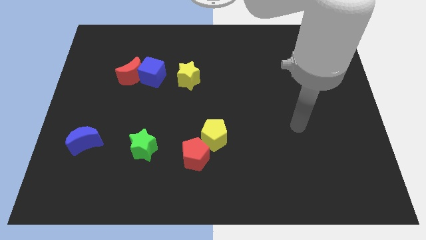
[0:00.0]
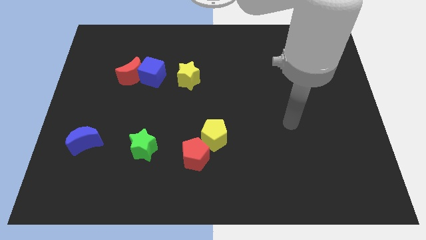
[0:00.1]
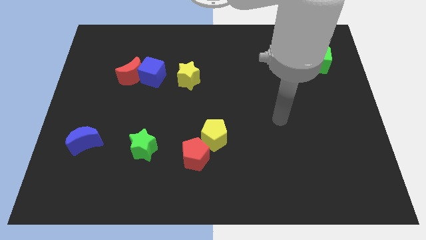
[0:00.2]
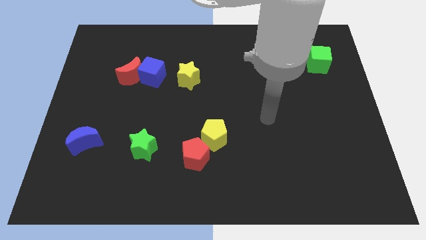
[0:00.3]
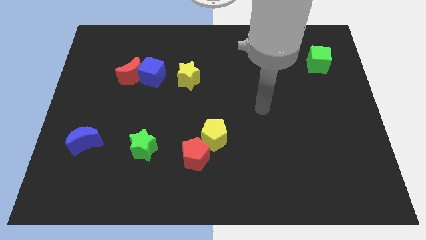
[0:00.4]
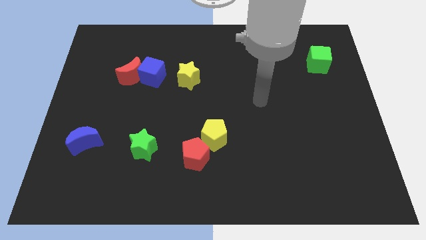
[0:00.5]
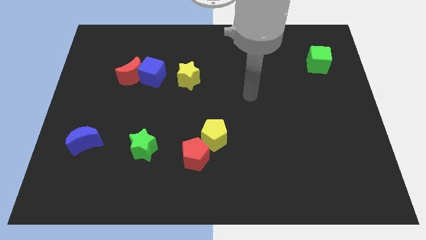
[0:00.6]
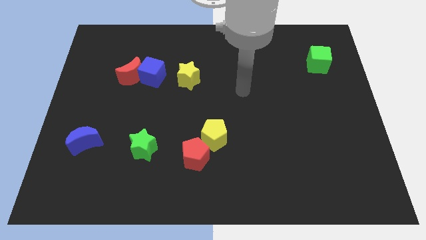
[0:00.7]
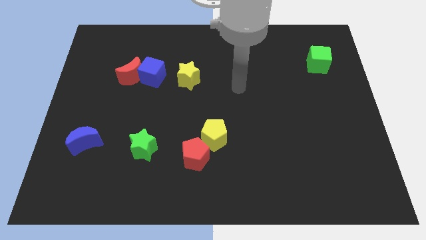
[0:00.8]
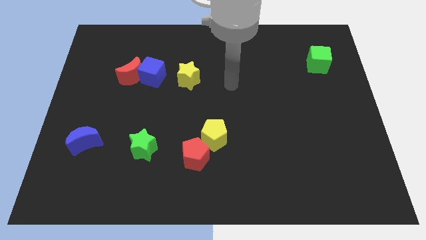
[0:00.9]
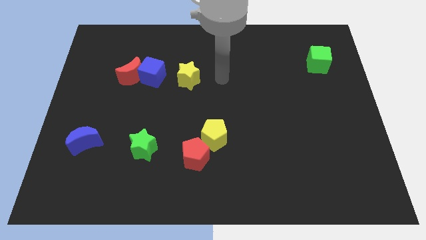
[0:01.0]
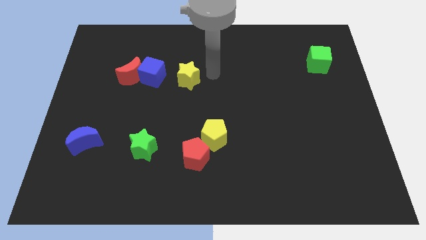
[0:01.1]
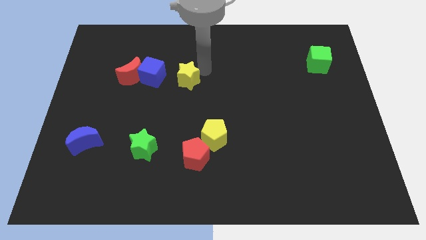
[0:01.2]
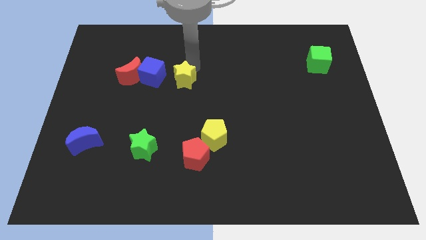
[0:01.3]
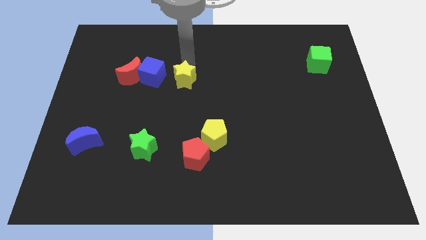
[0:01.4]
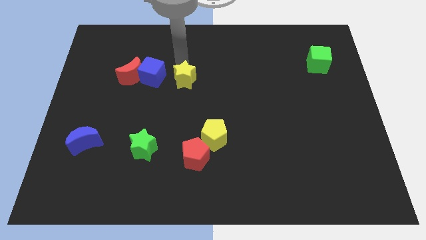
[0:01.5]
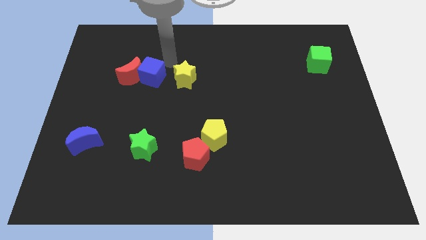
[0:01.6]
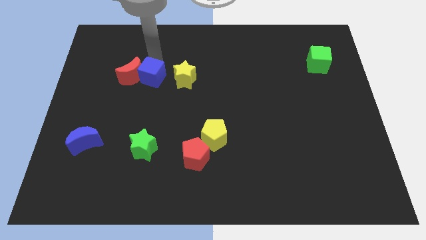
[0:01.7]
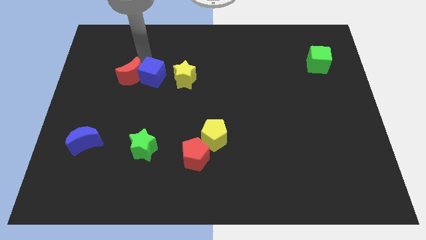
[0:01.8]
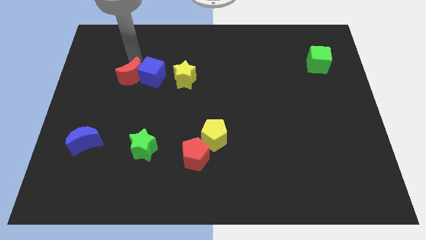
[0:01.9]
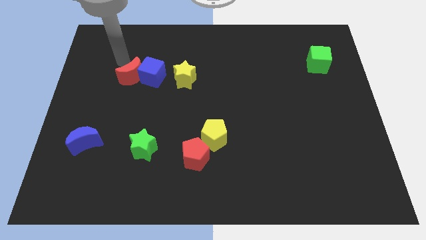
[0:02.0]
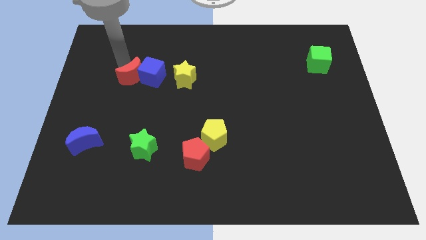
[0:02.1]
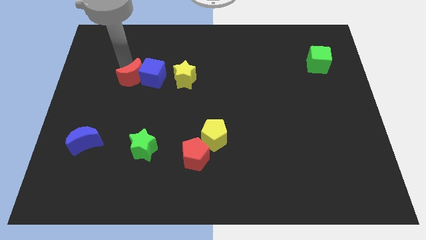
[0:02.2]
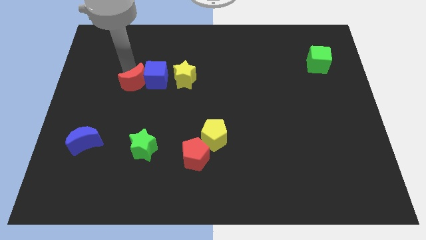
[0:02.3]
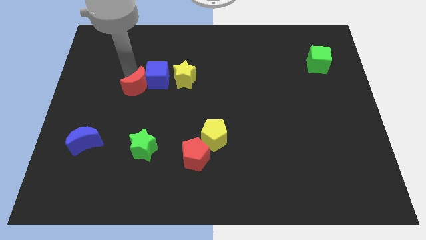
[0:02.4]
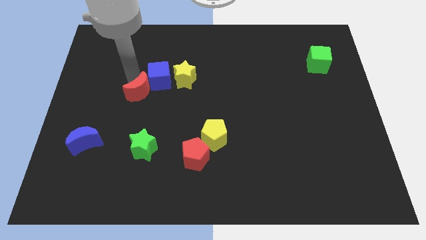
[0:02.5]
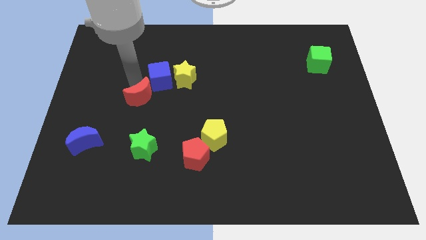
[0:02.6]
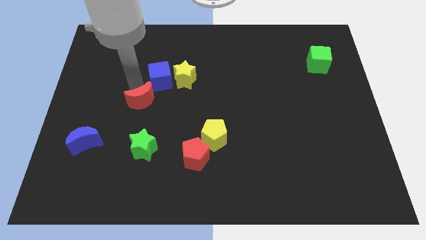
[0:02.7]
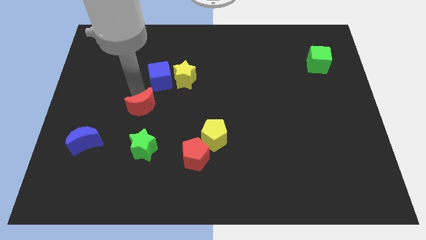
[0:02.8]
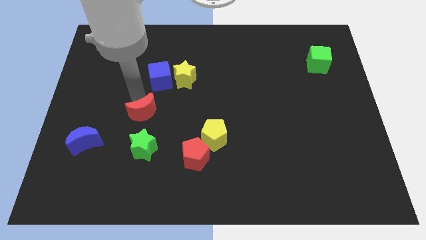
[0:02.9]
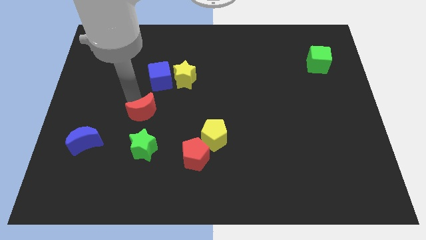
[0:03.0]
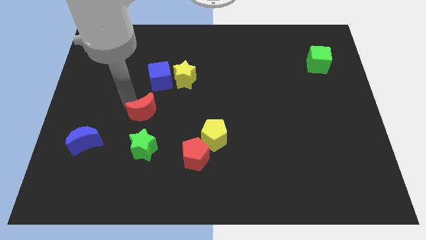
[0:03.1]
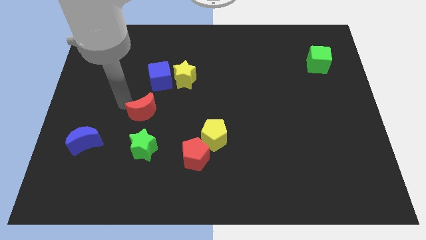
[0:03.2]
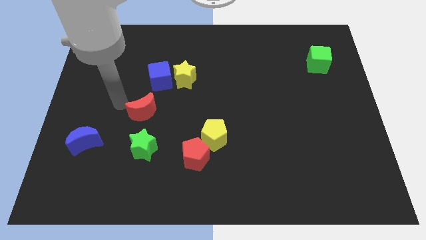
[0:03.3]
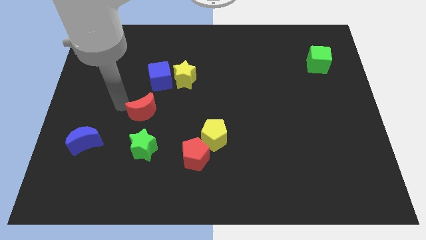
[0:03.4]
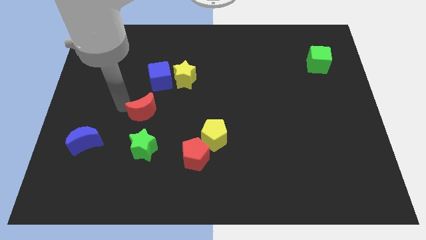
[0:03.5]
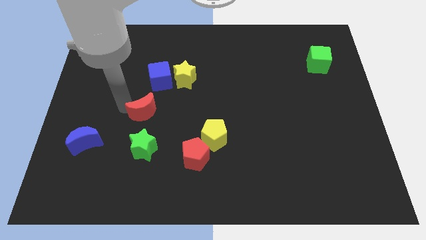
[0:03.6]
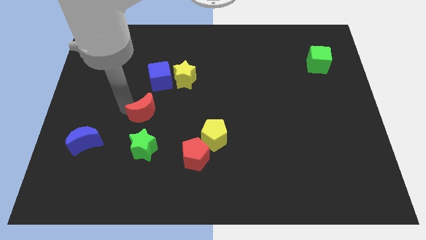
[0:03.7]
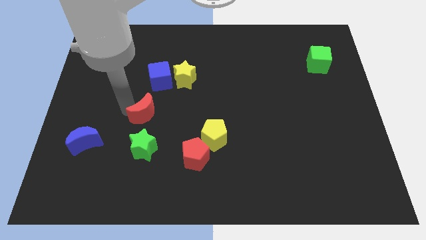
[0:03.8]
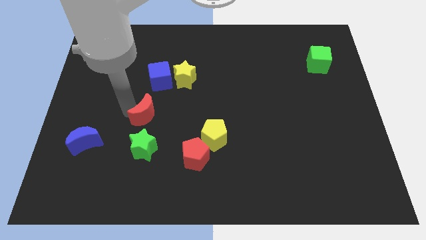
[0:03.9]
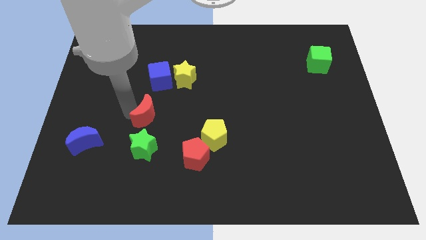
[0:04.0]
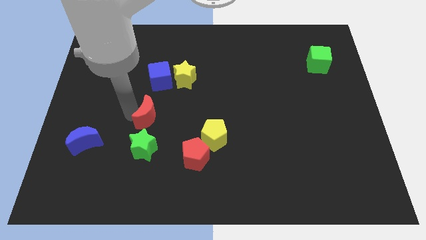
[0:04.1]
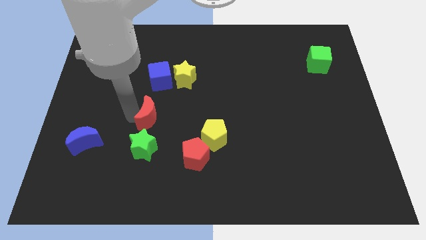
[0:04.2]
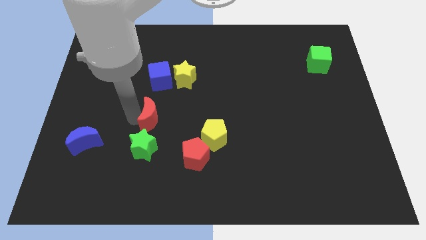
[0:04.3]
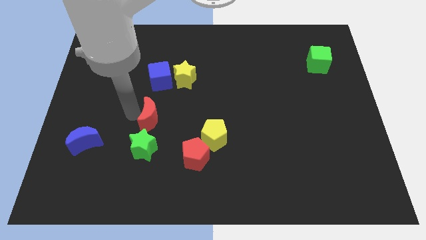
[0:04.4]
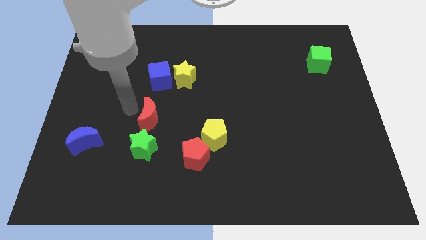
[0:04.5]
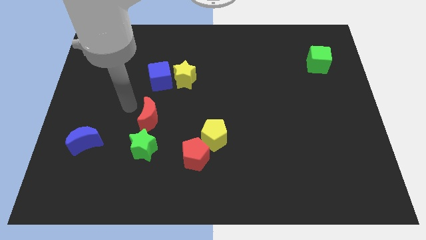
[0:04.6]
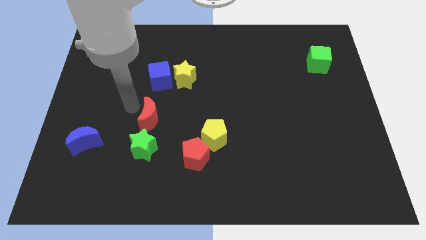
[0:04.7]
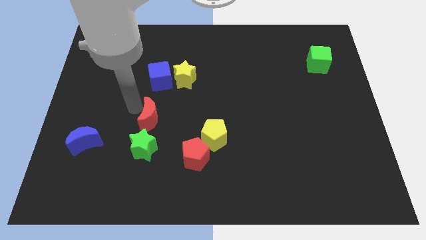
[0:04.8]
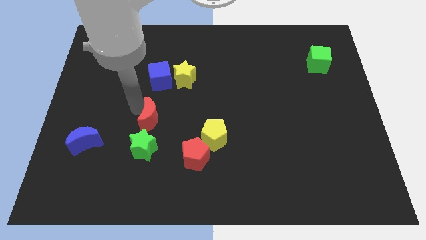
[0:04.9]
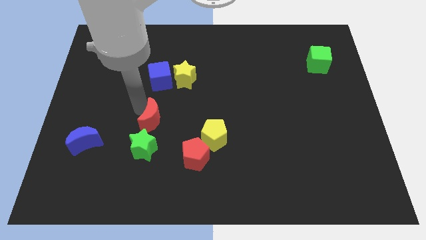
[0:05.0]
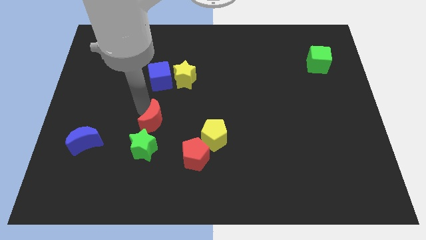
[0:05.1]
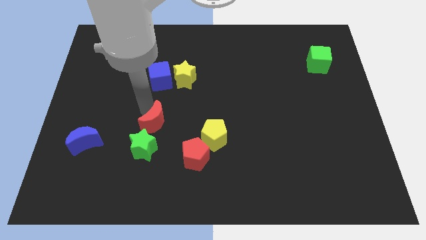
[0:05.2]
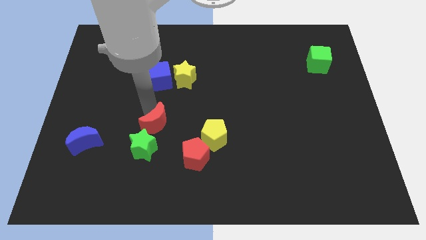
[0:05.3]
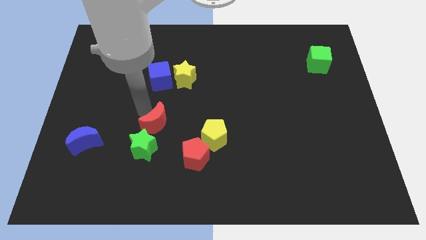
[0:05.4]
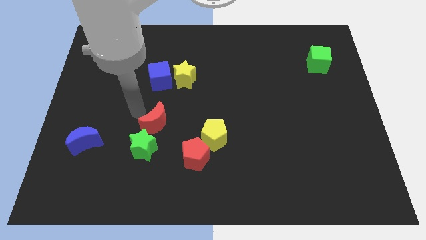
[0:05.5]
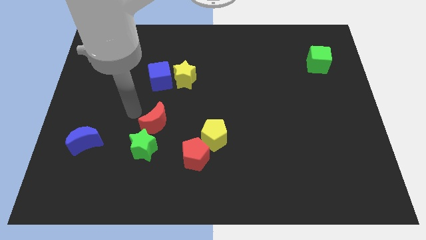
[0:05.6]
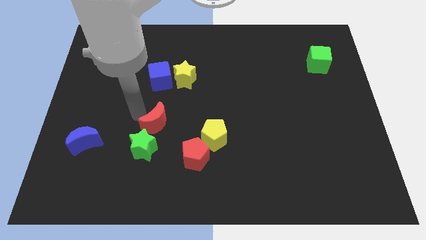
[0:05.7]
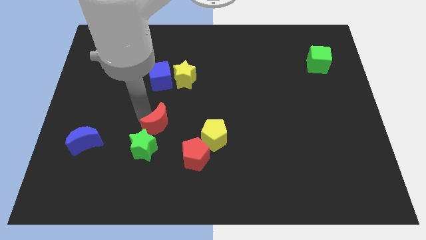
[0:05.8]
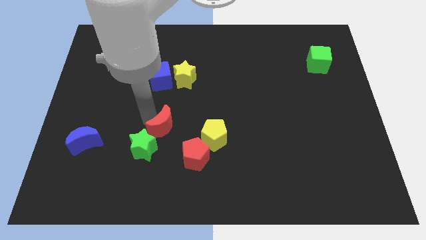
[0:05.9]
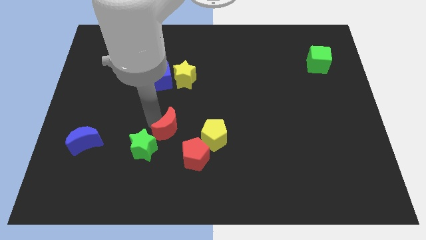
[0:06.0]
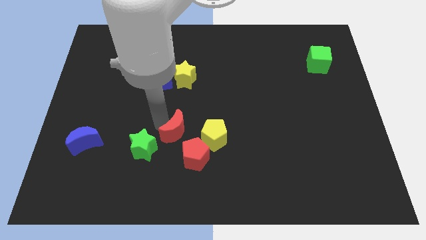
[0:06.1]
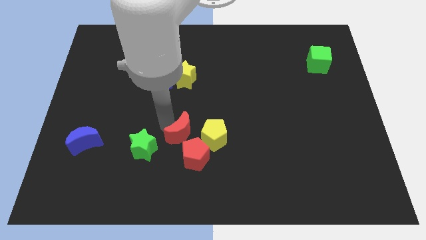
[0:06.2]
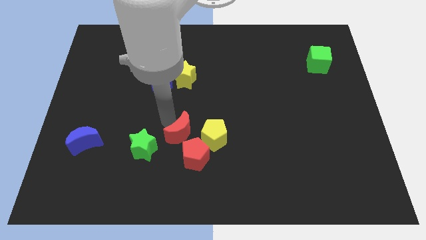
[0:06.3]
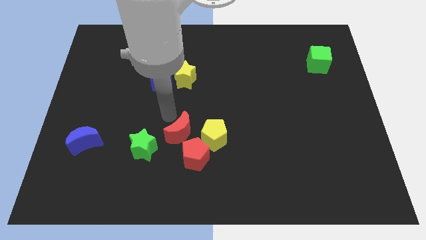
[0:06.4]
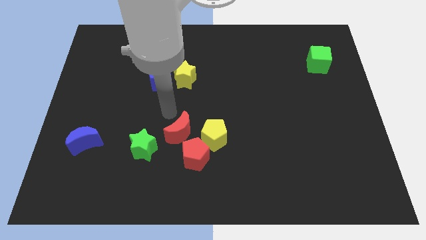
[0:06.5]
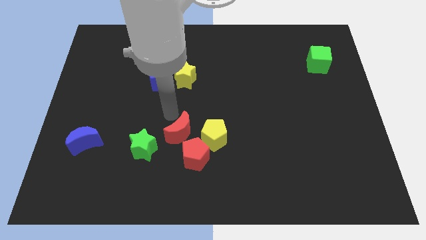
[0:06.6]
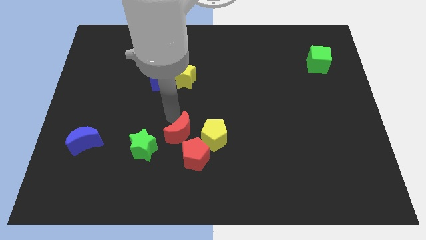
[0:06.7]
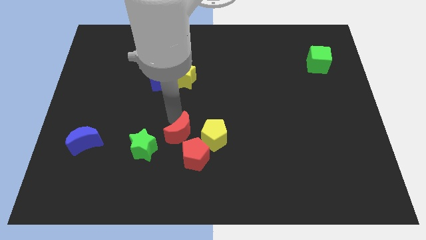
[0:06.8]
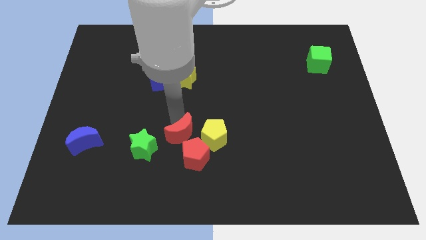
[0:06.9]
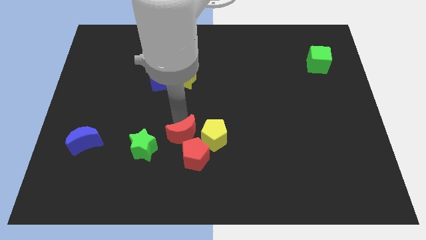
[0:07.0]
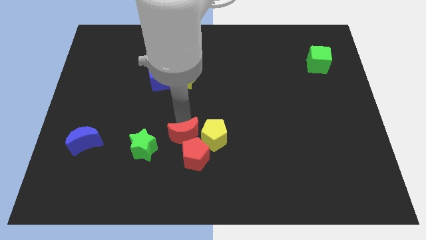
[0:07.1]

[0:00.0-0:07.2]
put the red moon next to the red pentagon

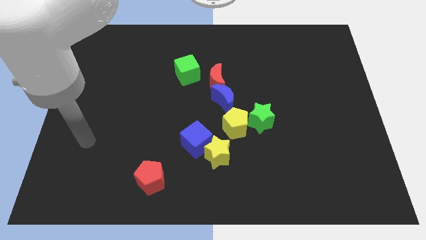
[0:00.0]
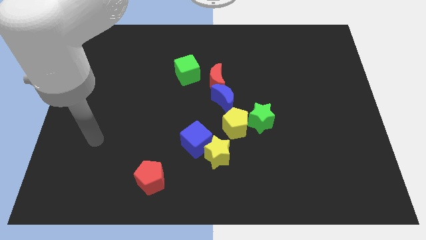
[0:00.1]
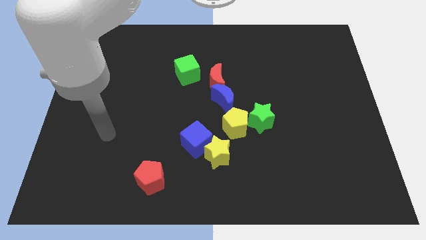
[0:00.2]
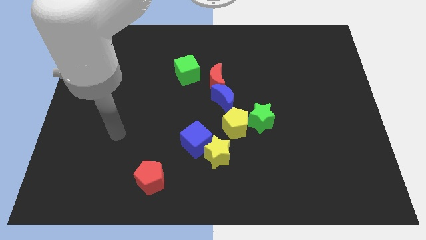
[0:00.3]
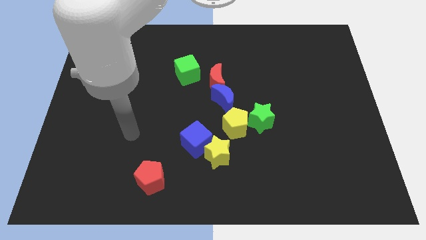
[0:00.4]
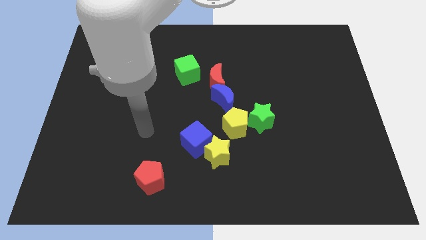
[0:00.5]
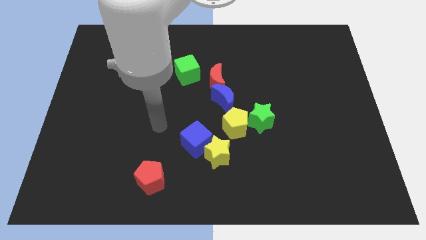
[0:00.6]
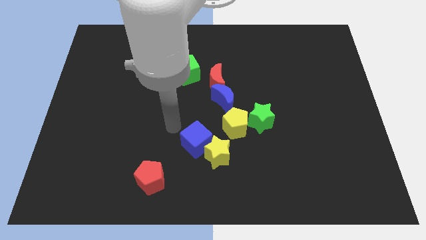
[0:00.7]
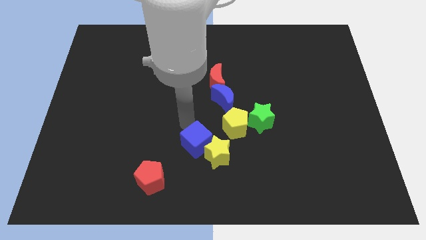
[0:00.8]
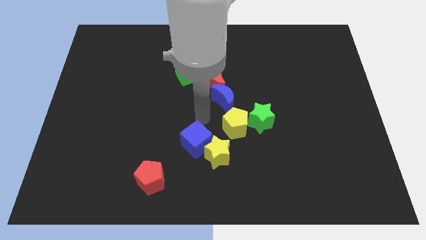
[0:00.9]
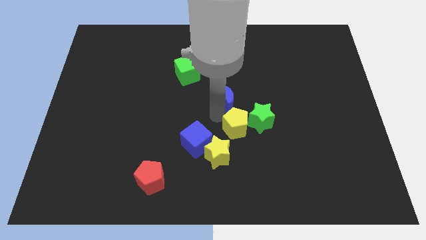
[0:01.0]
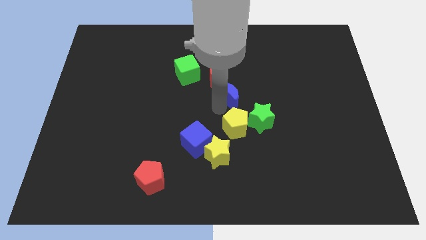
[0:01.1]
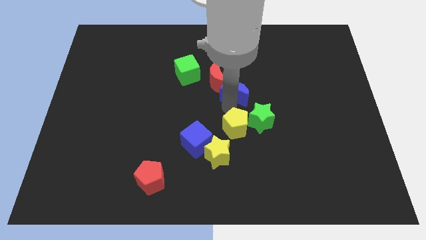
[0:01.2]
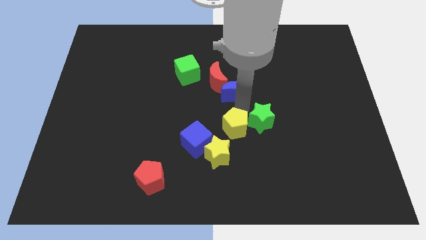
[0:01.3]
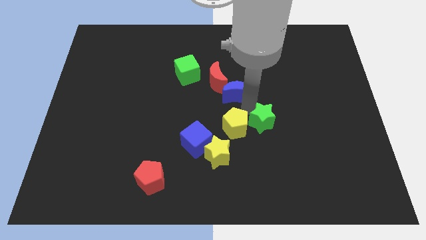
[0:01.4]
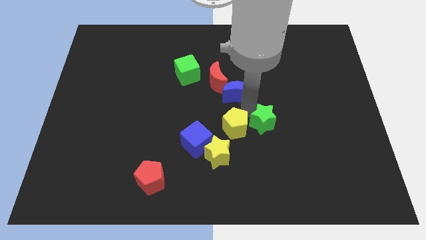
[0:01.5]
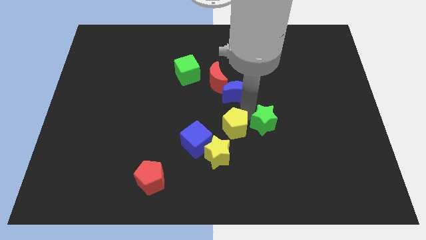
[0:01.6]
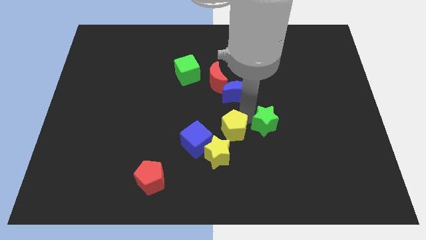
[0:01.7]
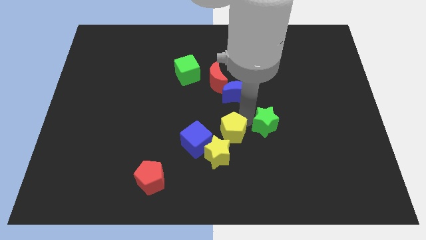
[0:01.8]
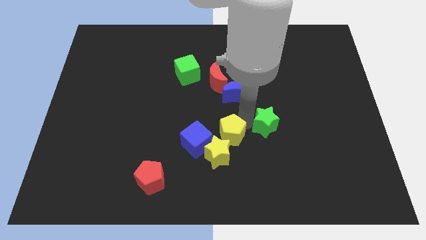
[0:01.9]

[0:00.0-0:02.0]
put the yellow pentagon towards the yellow star
